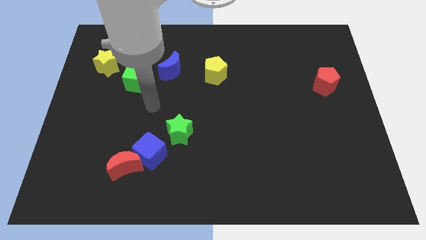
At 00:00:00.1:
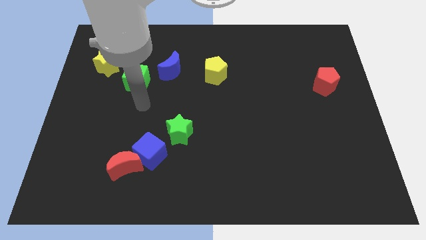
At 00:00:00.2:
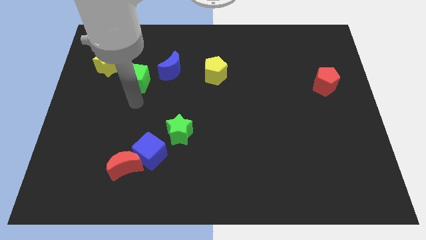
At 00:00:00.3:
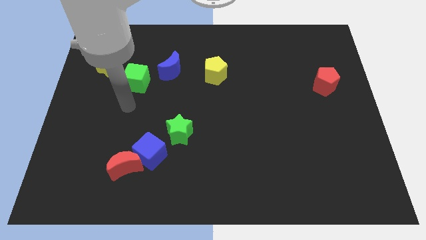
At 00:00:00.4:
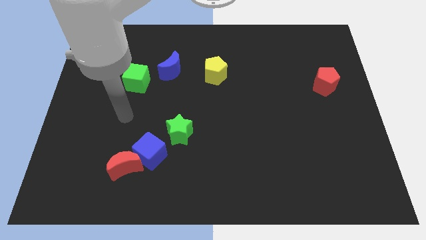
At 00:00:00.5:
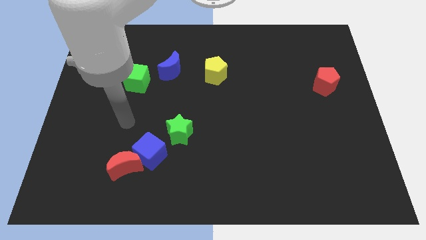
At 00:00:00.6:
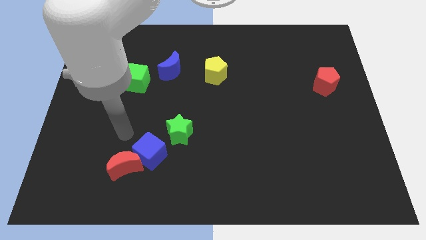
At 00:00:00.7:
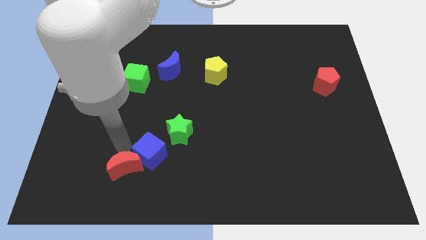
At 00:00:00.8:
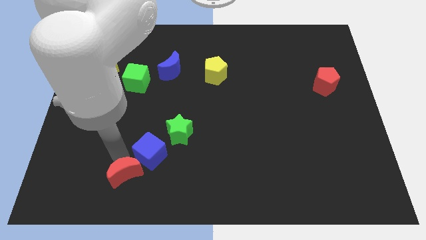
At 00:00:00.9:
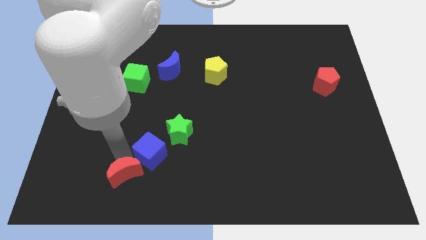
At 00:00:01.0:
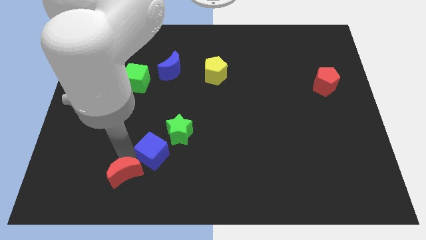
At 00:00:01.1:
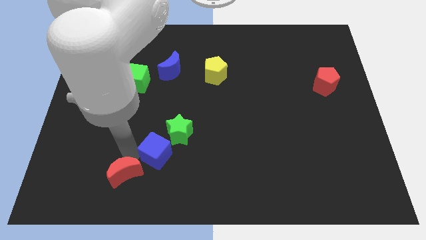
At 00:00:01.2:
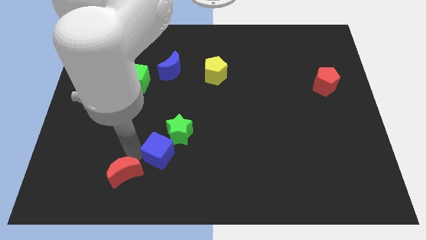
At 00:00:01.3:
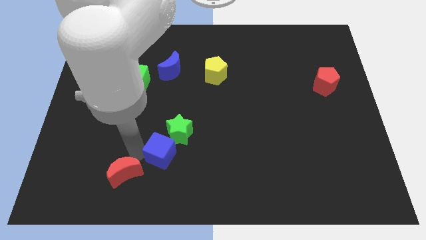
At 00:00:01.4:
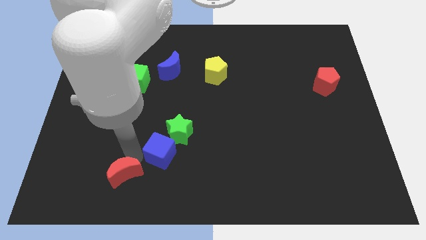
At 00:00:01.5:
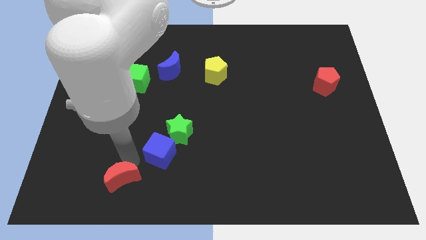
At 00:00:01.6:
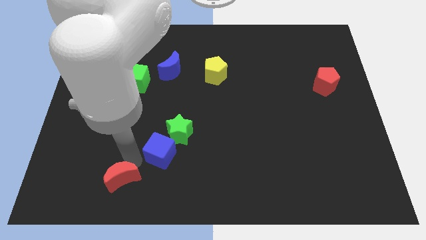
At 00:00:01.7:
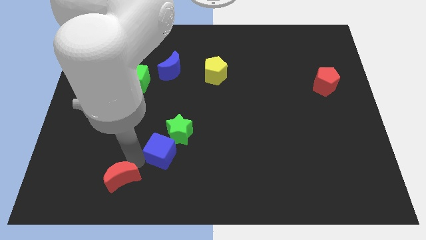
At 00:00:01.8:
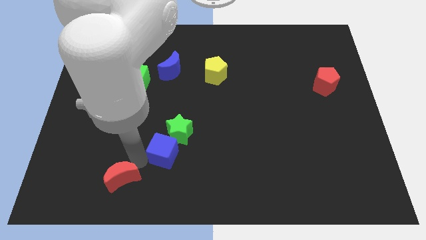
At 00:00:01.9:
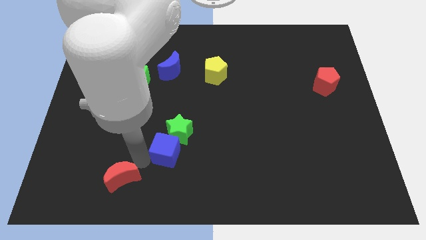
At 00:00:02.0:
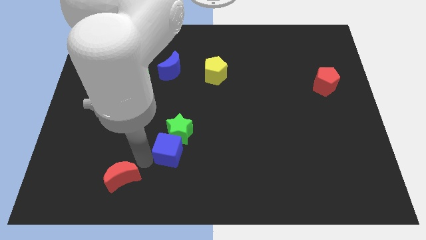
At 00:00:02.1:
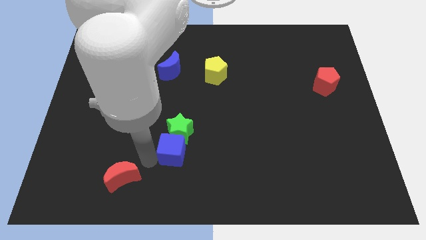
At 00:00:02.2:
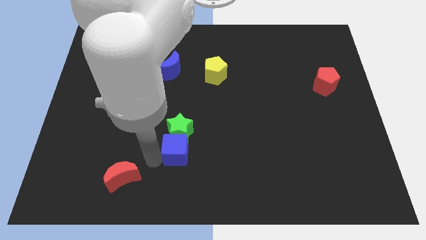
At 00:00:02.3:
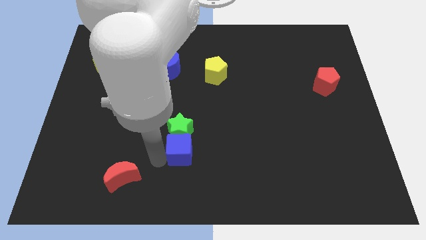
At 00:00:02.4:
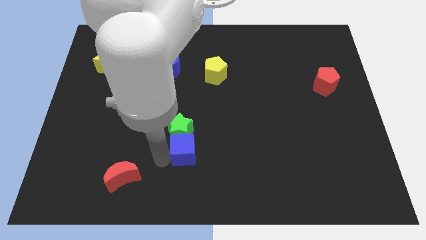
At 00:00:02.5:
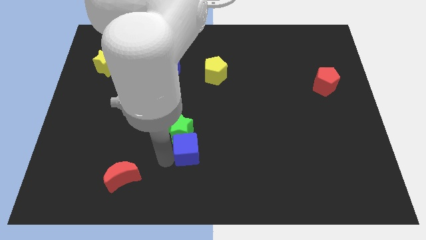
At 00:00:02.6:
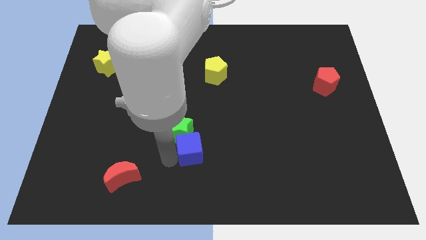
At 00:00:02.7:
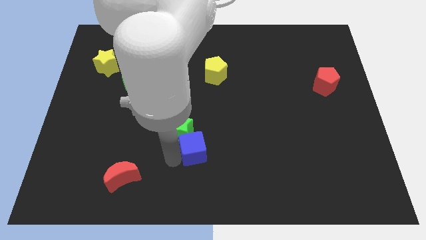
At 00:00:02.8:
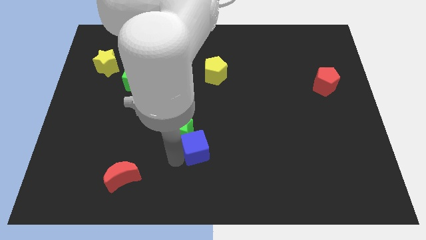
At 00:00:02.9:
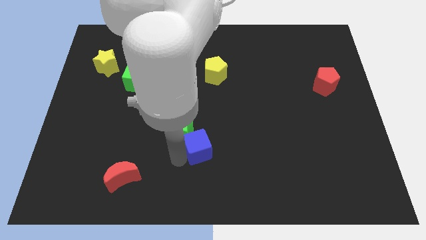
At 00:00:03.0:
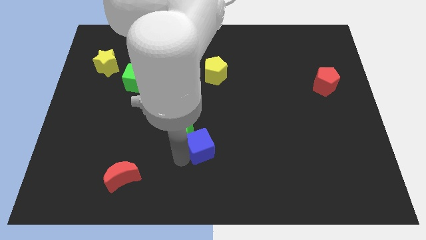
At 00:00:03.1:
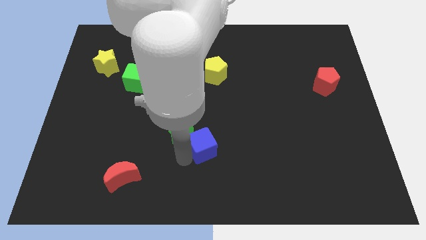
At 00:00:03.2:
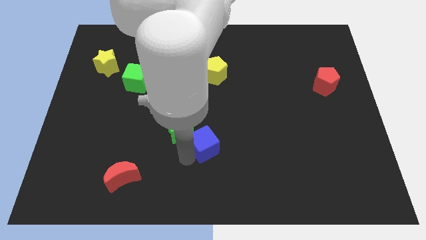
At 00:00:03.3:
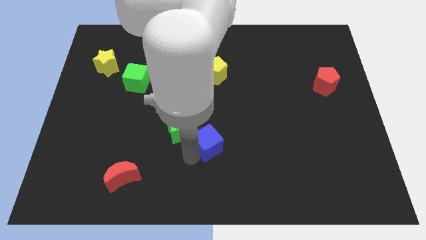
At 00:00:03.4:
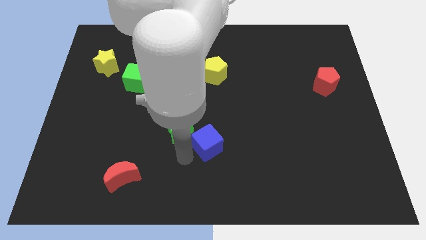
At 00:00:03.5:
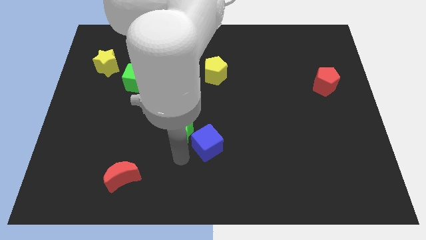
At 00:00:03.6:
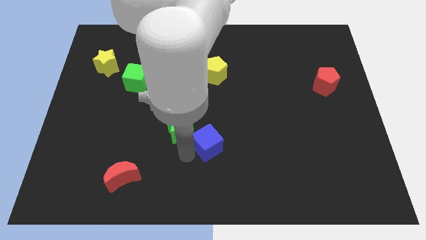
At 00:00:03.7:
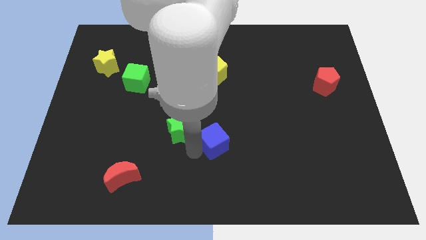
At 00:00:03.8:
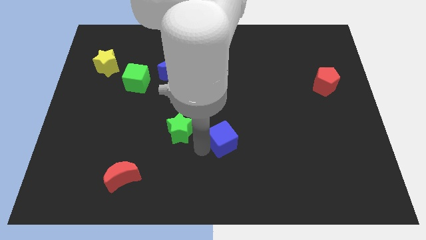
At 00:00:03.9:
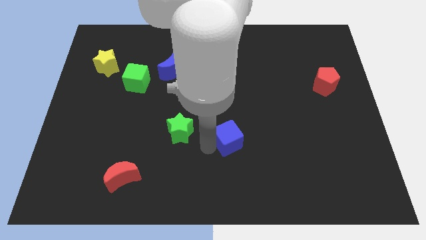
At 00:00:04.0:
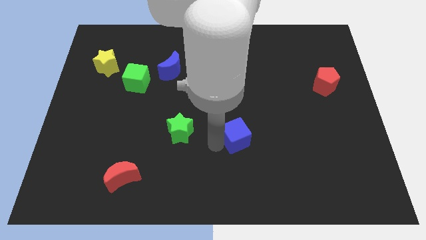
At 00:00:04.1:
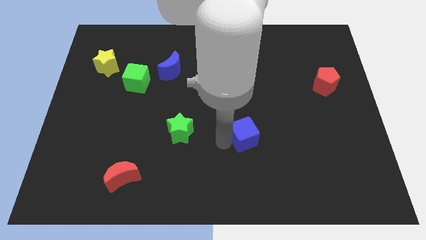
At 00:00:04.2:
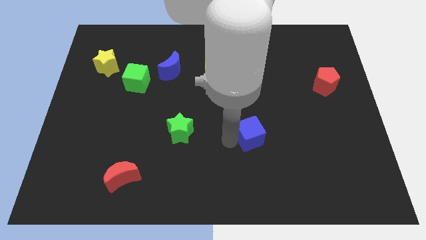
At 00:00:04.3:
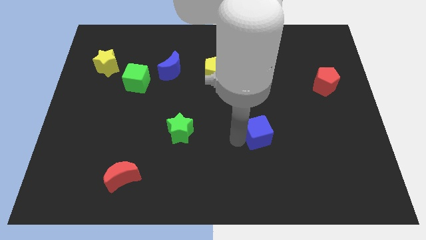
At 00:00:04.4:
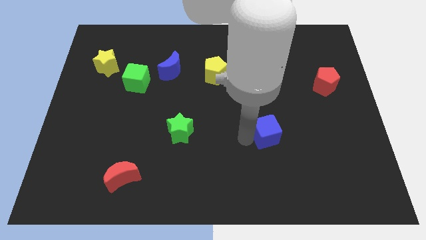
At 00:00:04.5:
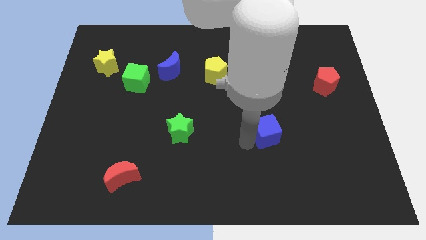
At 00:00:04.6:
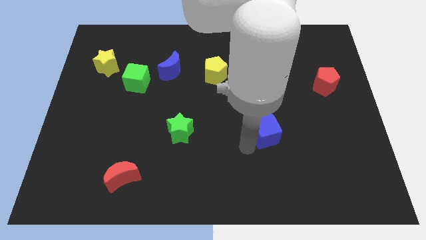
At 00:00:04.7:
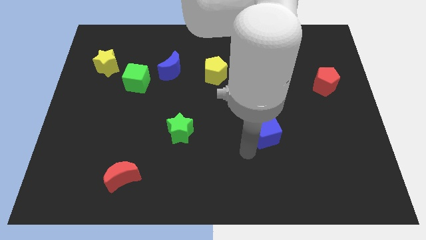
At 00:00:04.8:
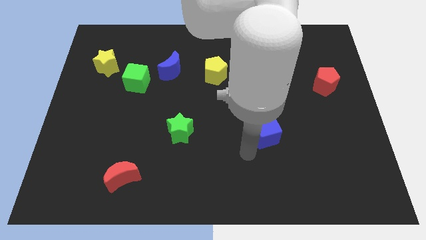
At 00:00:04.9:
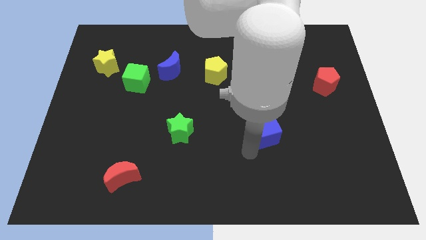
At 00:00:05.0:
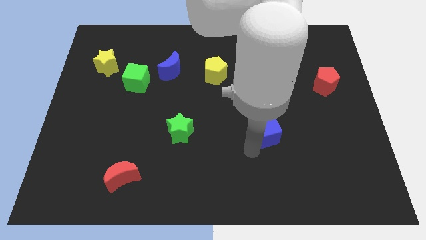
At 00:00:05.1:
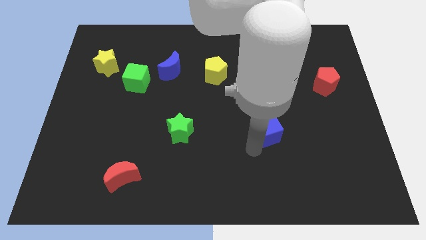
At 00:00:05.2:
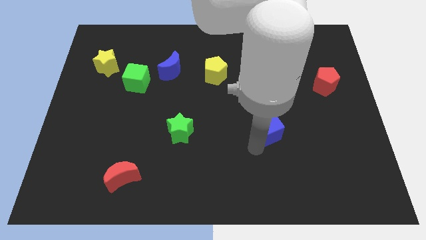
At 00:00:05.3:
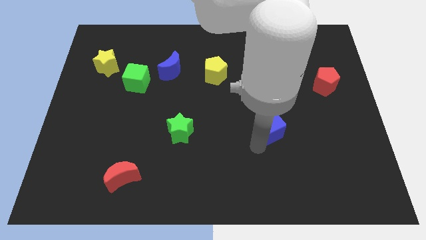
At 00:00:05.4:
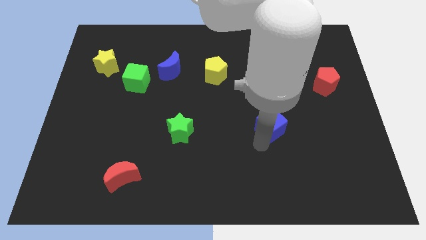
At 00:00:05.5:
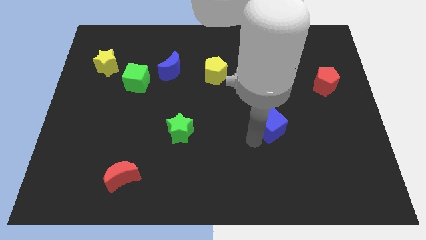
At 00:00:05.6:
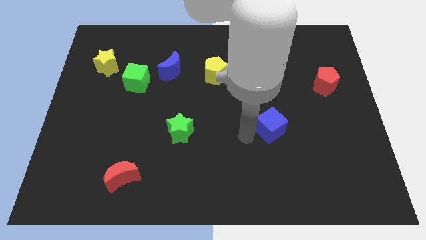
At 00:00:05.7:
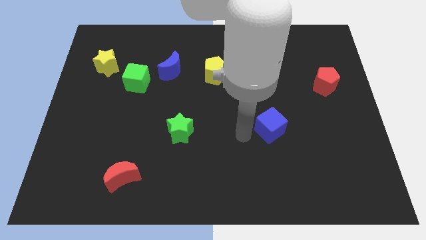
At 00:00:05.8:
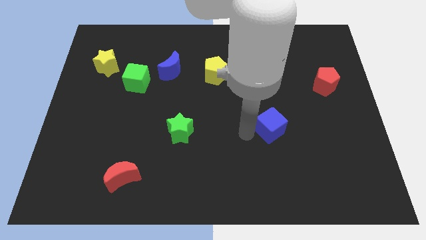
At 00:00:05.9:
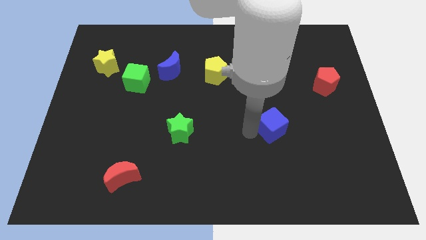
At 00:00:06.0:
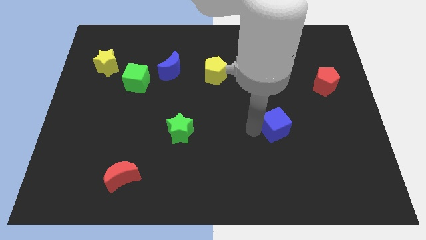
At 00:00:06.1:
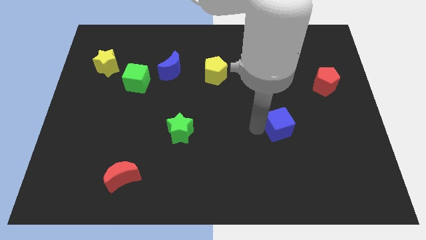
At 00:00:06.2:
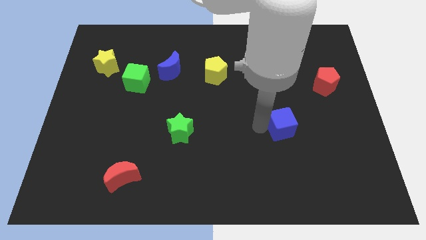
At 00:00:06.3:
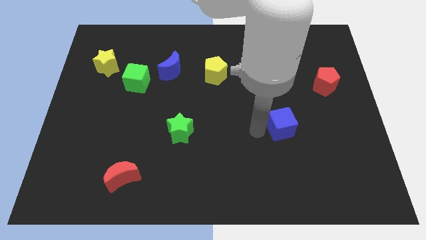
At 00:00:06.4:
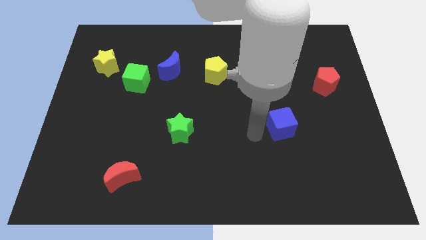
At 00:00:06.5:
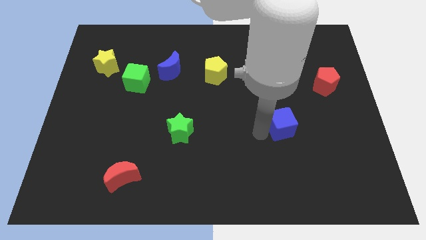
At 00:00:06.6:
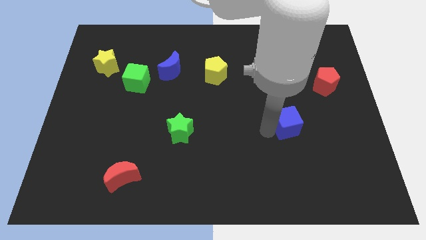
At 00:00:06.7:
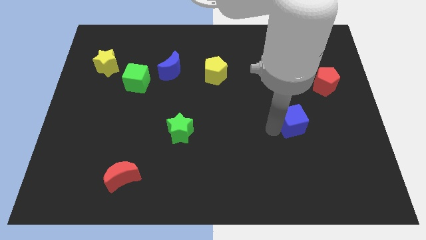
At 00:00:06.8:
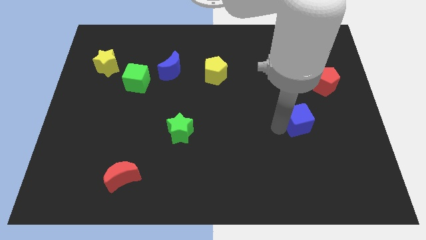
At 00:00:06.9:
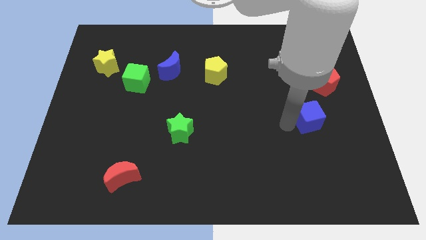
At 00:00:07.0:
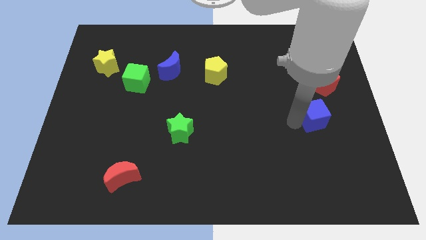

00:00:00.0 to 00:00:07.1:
push the blue cube to the bottom of the red pentagon
